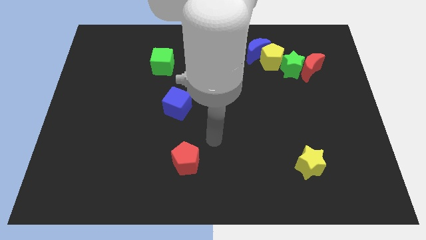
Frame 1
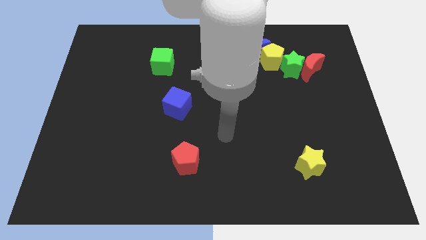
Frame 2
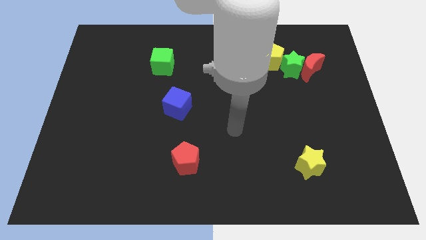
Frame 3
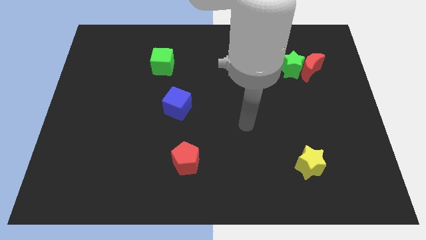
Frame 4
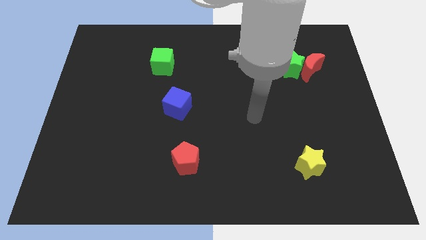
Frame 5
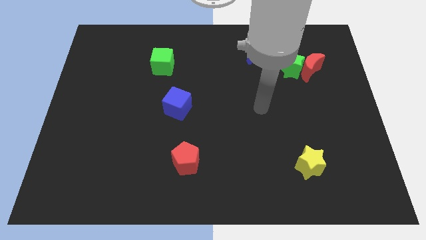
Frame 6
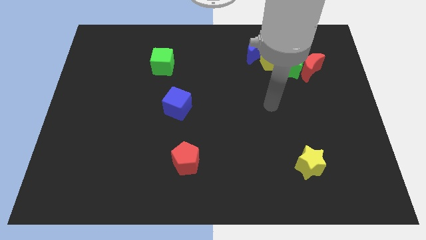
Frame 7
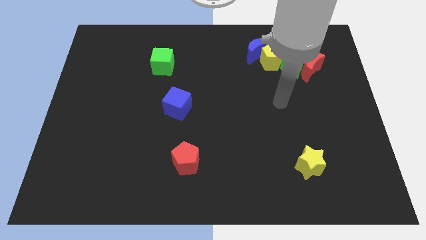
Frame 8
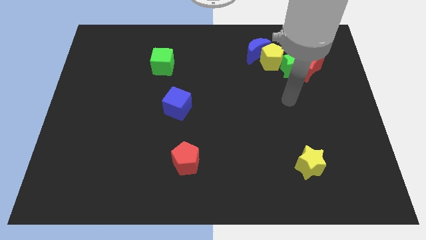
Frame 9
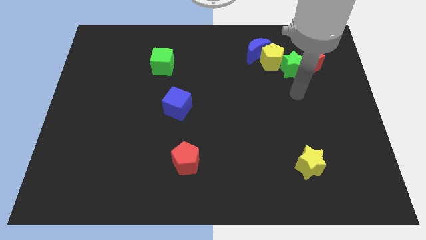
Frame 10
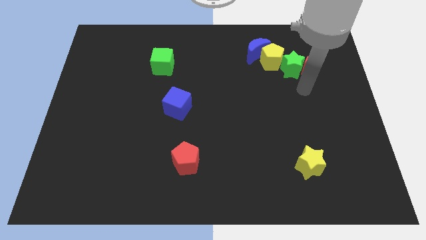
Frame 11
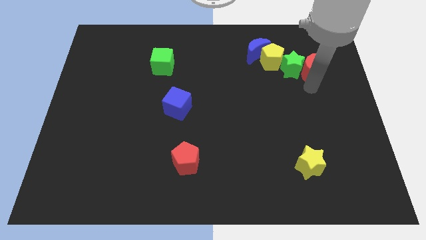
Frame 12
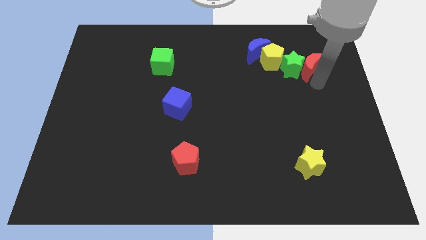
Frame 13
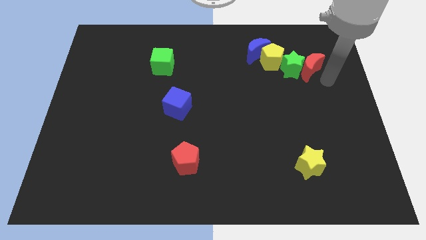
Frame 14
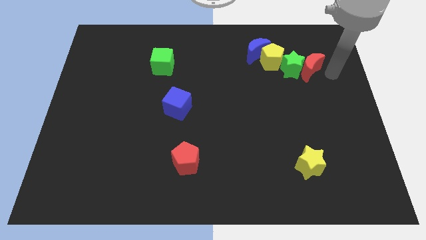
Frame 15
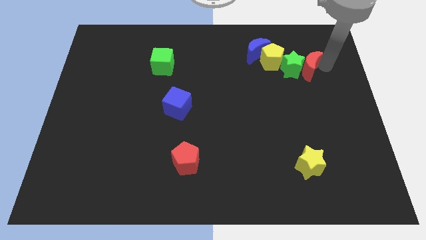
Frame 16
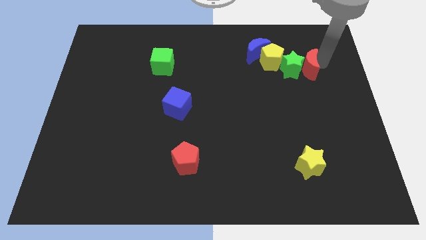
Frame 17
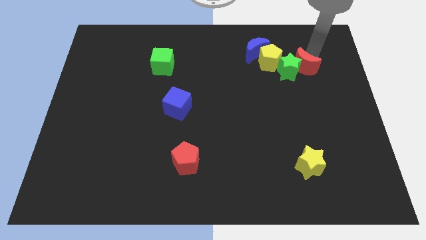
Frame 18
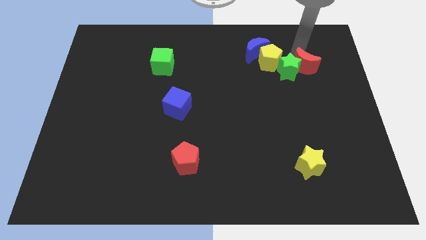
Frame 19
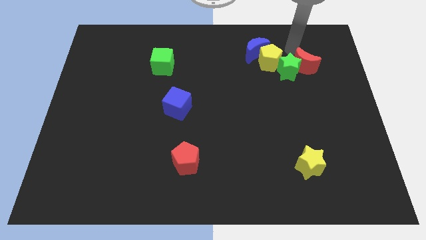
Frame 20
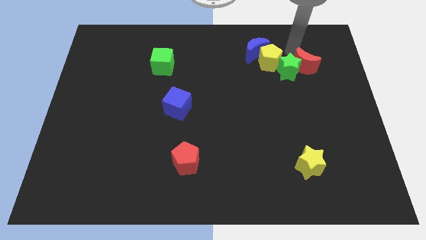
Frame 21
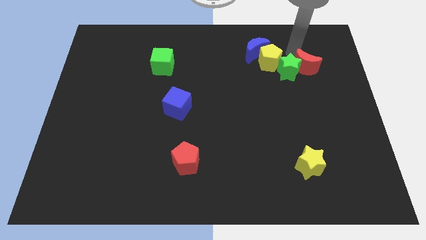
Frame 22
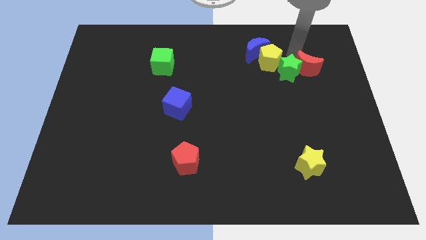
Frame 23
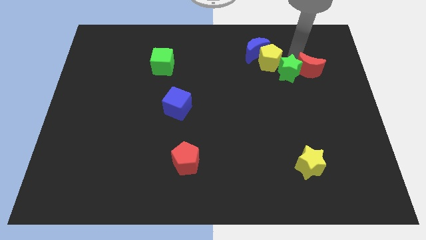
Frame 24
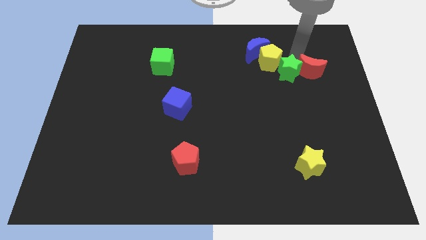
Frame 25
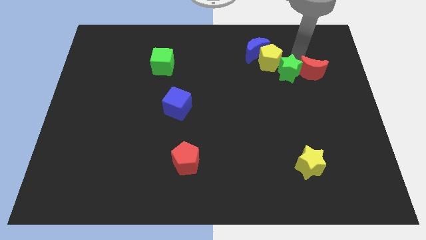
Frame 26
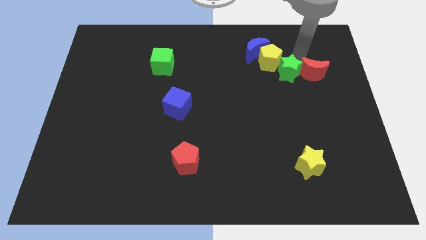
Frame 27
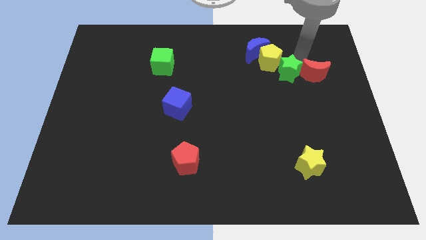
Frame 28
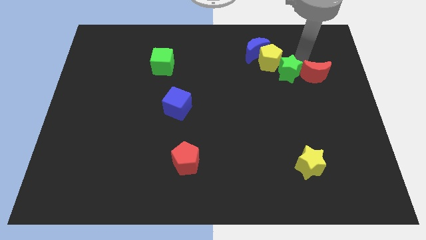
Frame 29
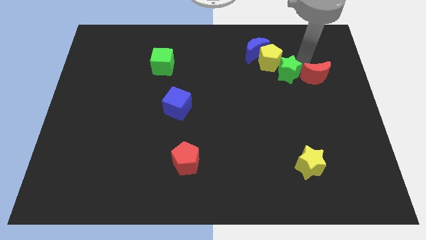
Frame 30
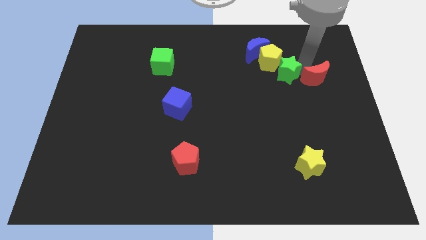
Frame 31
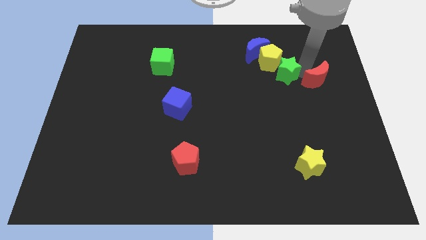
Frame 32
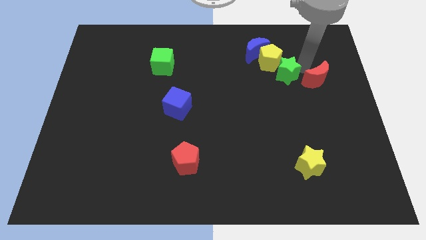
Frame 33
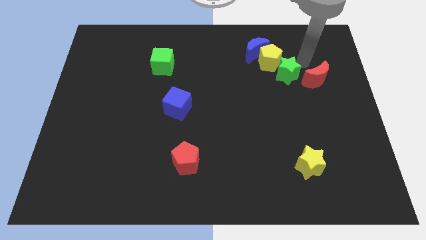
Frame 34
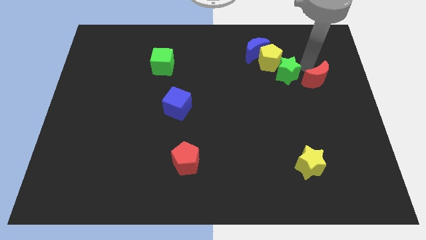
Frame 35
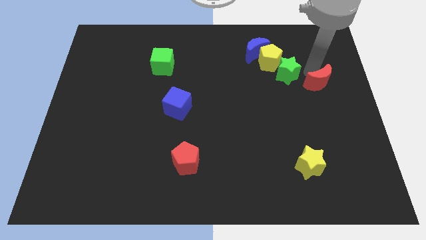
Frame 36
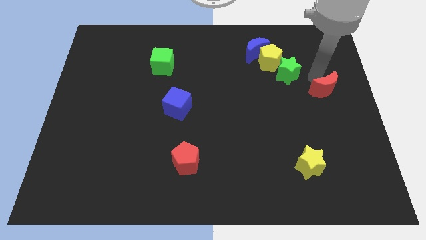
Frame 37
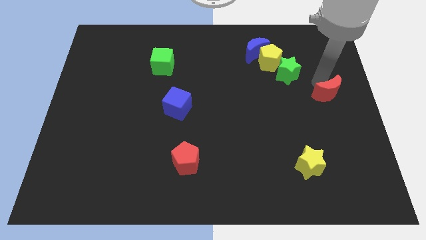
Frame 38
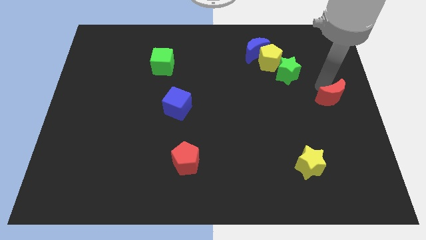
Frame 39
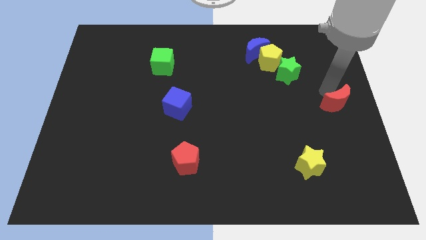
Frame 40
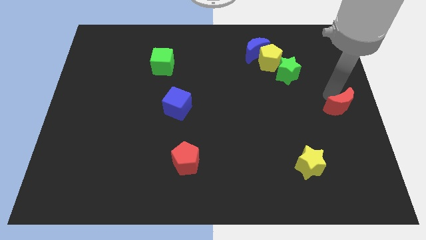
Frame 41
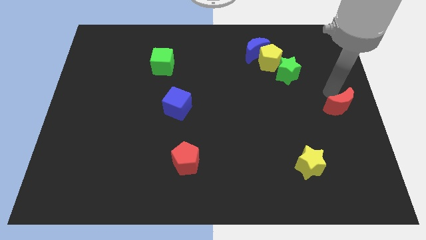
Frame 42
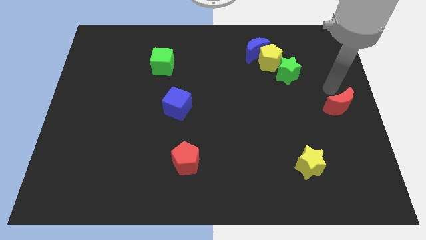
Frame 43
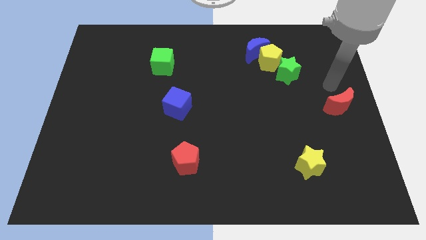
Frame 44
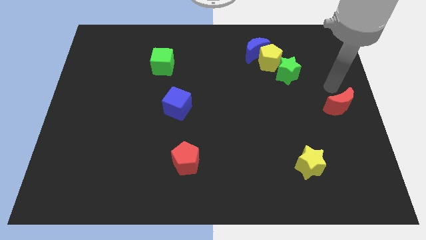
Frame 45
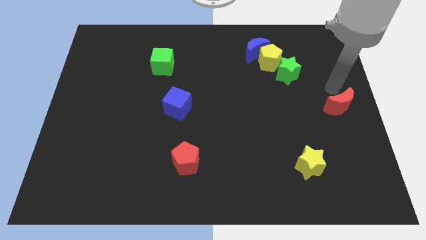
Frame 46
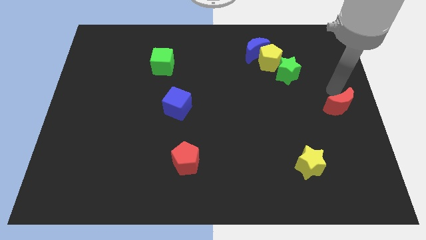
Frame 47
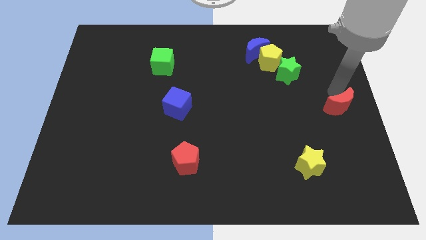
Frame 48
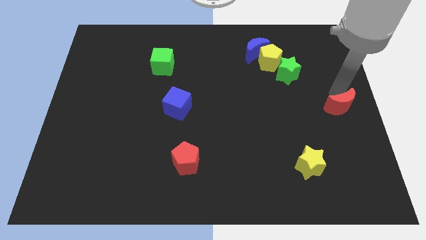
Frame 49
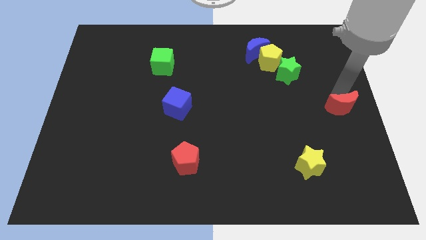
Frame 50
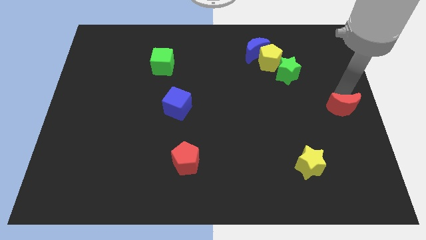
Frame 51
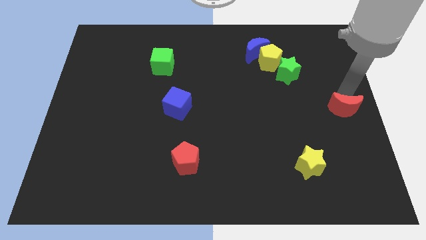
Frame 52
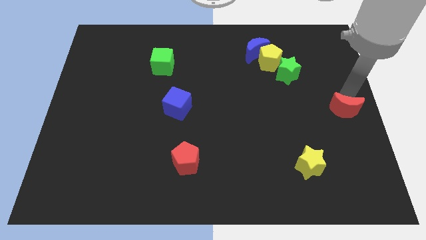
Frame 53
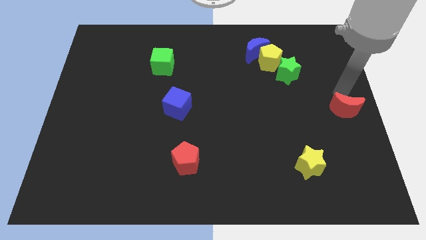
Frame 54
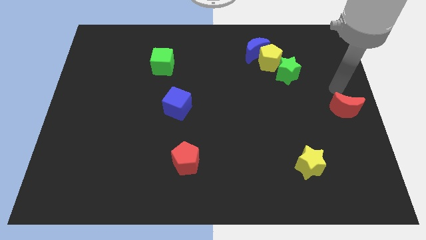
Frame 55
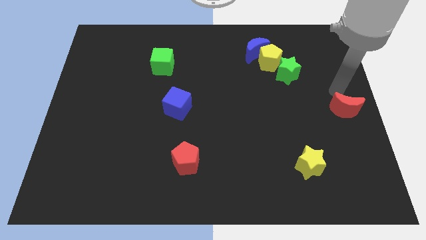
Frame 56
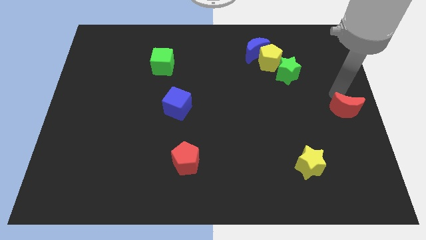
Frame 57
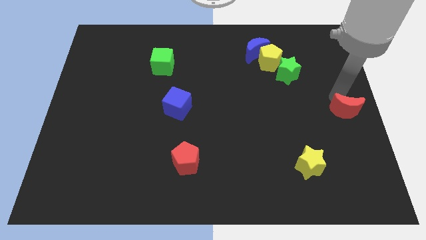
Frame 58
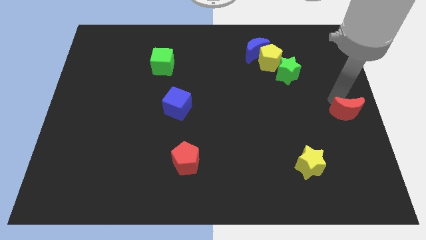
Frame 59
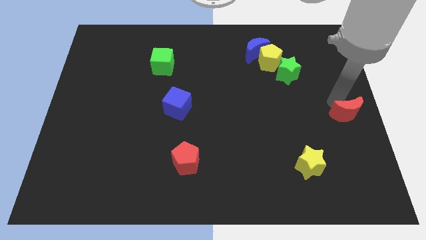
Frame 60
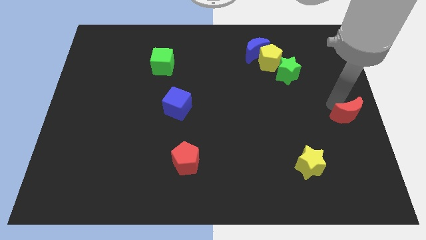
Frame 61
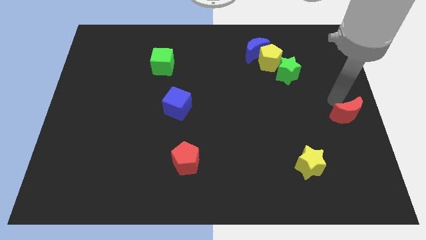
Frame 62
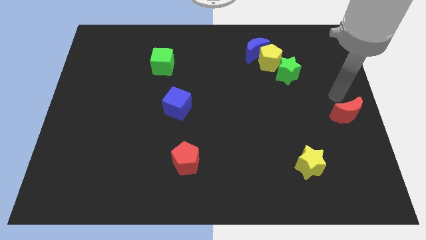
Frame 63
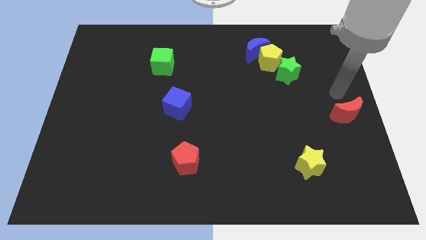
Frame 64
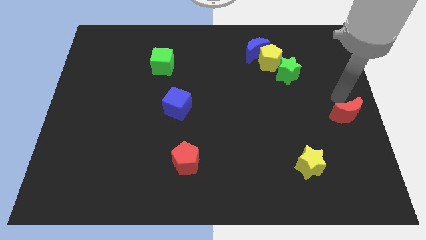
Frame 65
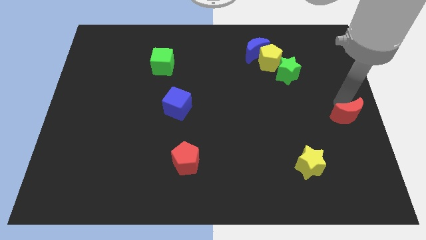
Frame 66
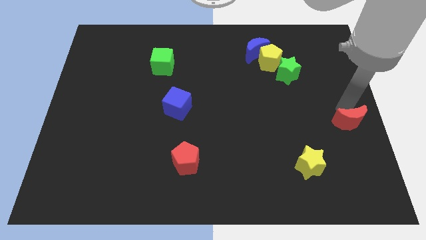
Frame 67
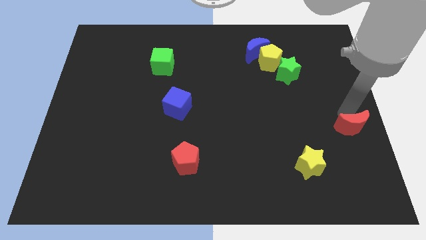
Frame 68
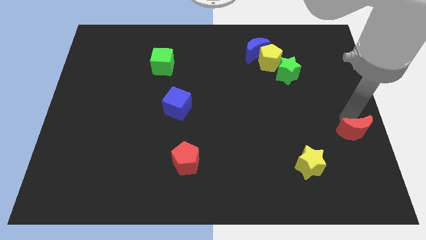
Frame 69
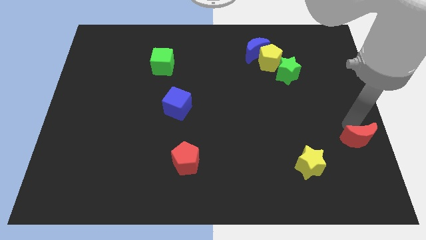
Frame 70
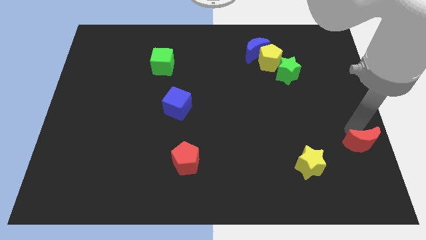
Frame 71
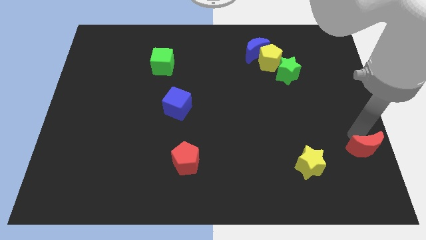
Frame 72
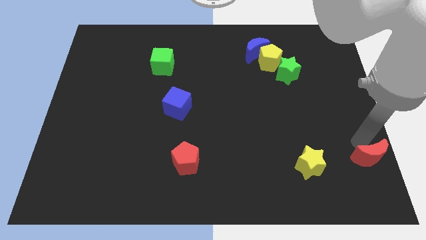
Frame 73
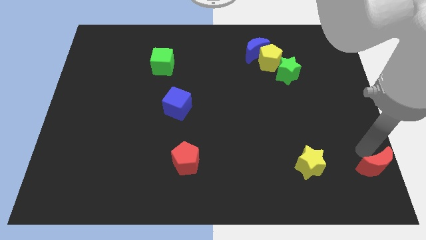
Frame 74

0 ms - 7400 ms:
put the red moon to the bottom right corner
